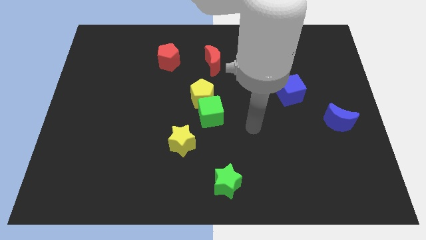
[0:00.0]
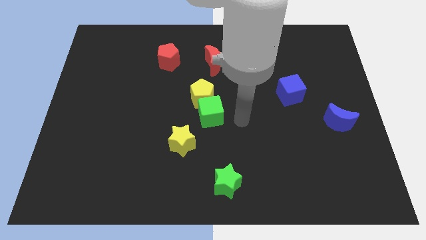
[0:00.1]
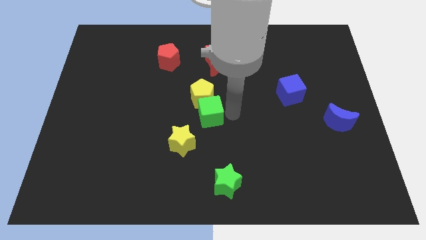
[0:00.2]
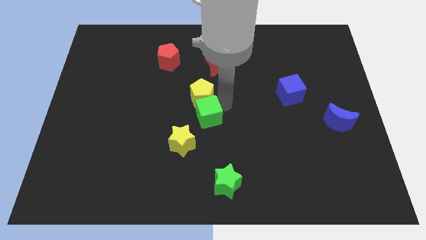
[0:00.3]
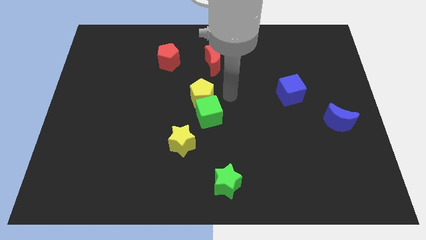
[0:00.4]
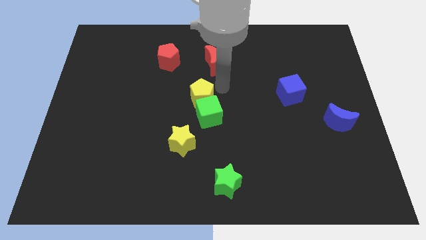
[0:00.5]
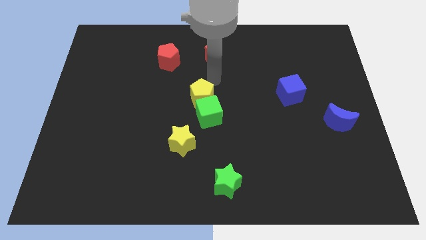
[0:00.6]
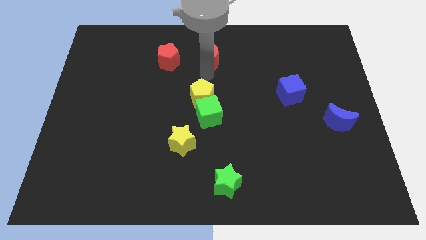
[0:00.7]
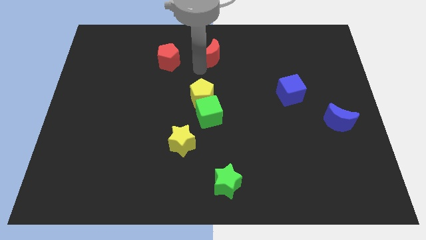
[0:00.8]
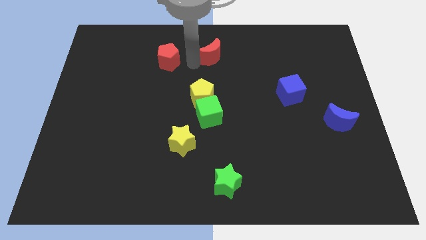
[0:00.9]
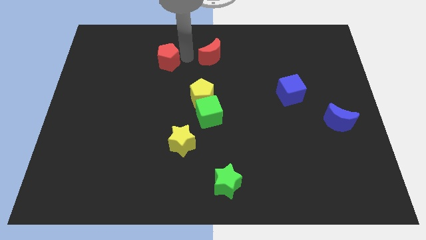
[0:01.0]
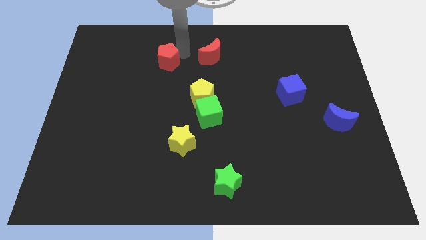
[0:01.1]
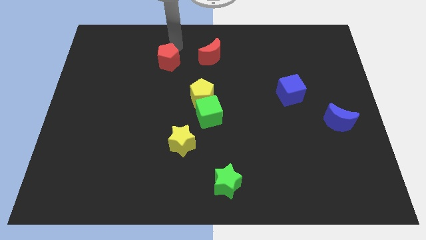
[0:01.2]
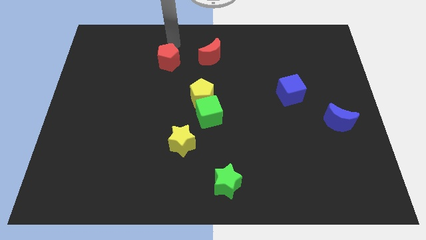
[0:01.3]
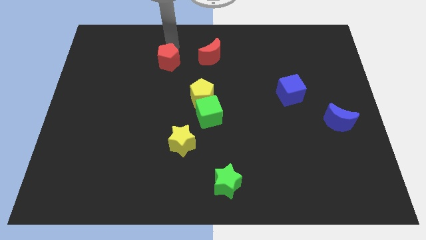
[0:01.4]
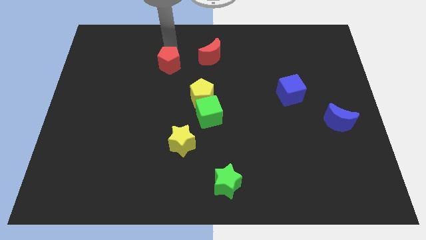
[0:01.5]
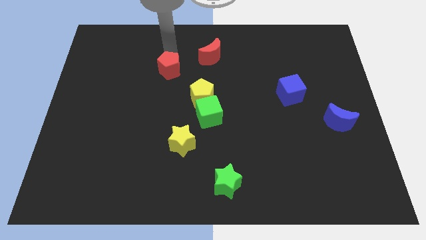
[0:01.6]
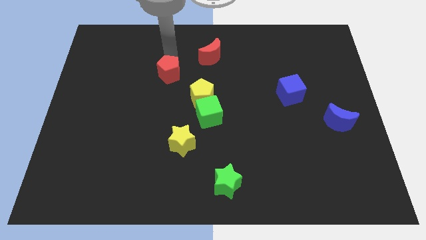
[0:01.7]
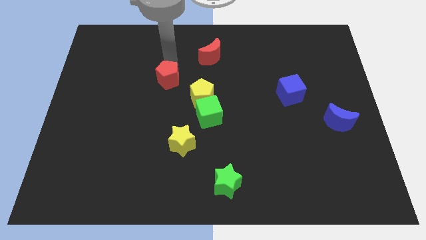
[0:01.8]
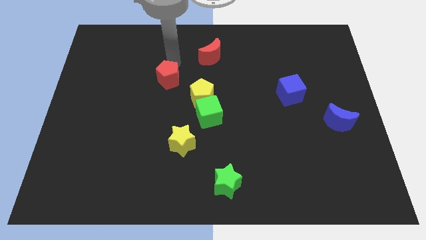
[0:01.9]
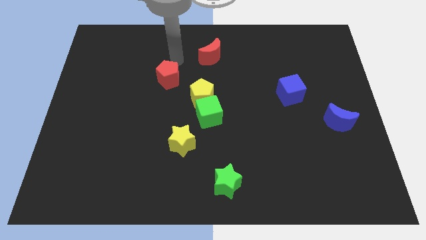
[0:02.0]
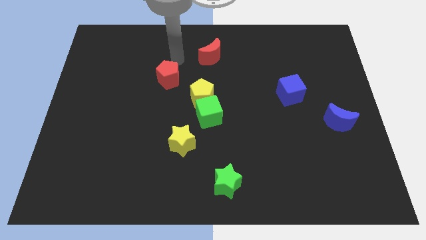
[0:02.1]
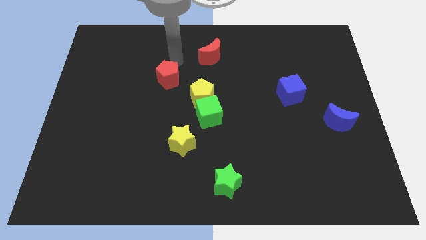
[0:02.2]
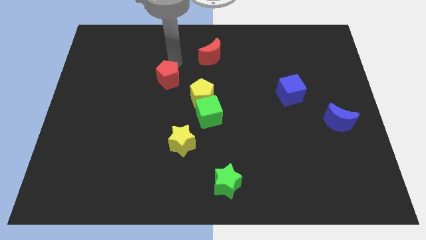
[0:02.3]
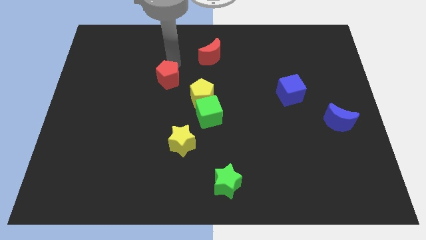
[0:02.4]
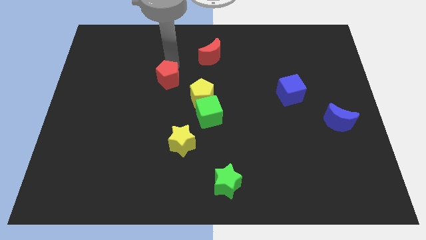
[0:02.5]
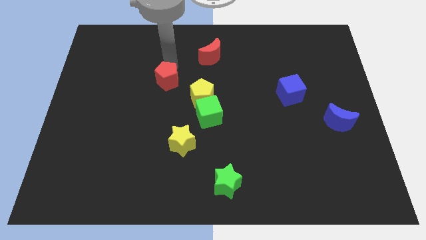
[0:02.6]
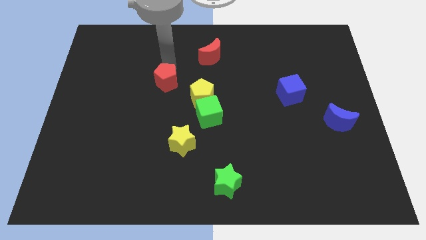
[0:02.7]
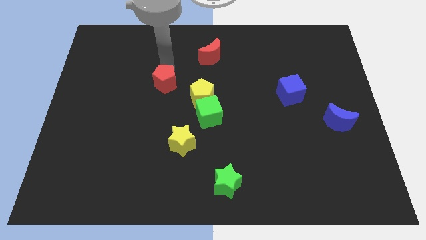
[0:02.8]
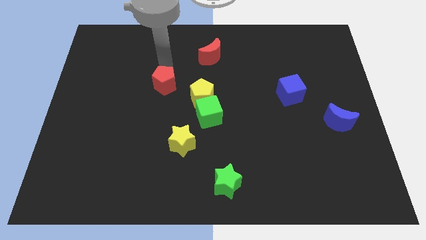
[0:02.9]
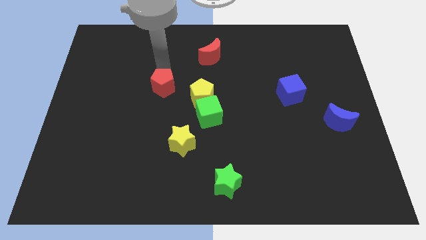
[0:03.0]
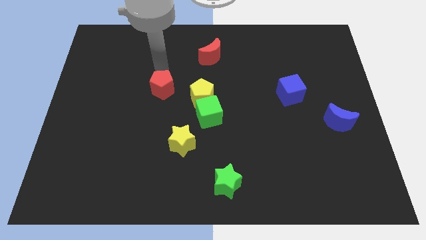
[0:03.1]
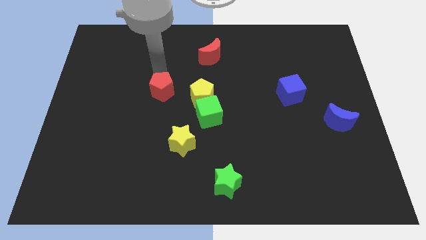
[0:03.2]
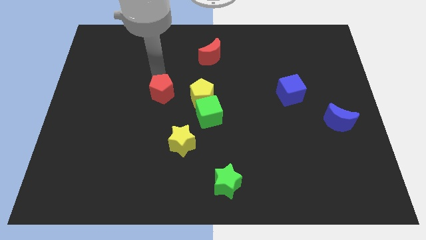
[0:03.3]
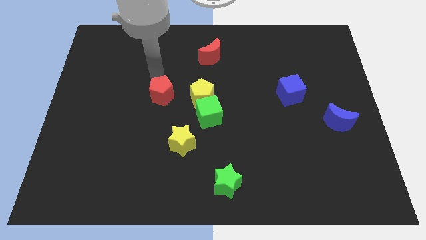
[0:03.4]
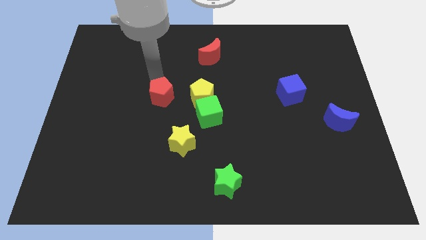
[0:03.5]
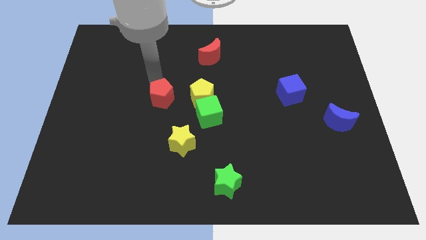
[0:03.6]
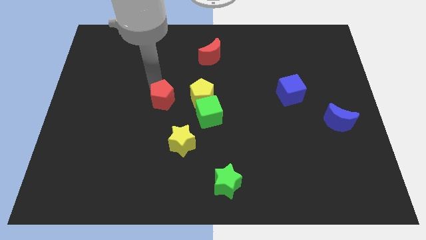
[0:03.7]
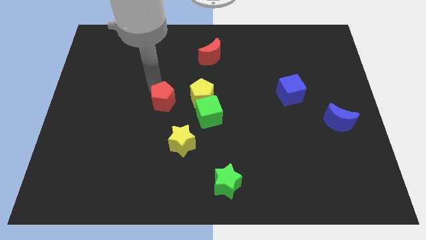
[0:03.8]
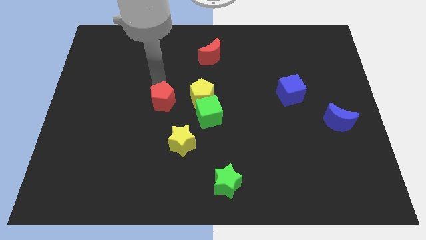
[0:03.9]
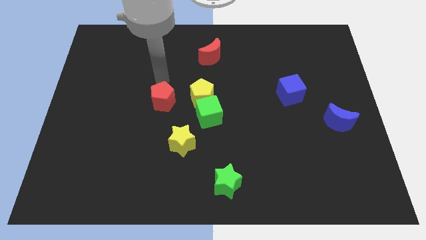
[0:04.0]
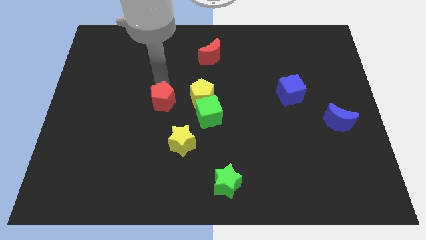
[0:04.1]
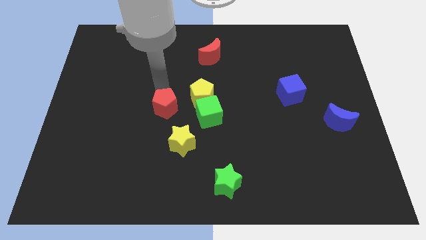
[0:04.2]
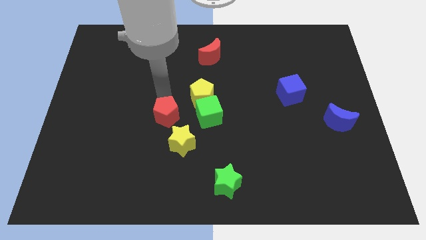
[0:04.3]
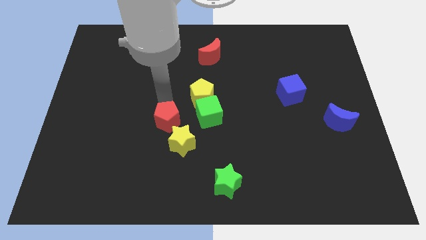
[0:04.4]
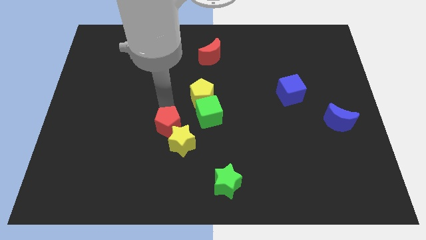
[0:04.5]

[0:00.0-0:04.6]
move the red pentagon down

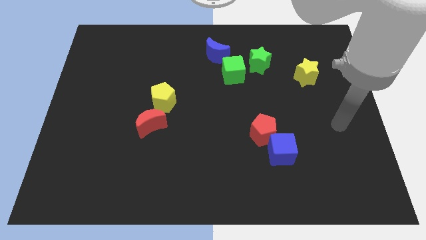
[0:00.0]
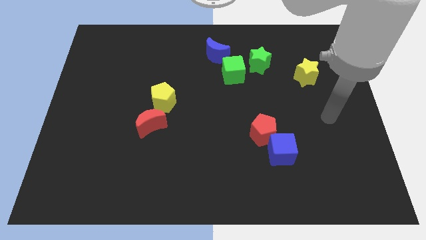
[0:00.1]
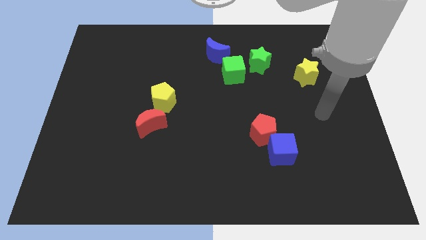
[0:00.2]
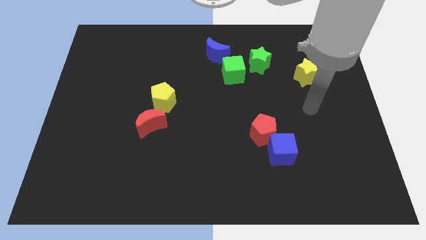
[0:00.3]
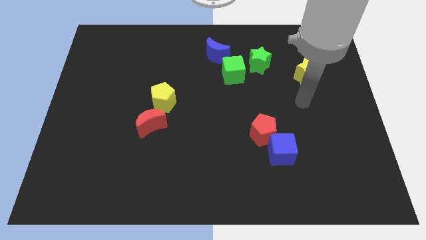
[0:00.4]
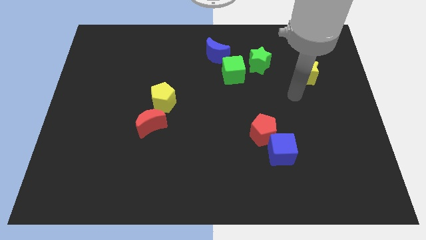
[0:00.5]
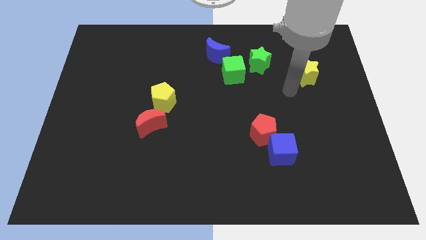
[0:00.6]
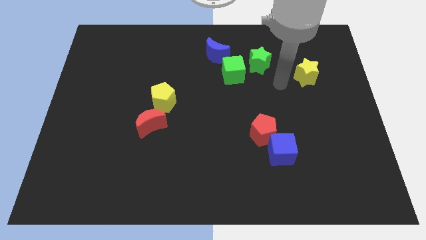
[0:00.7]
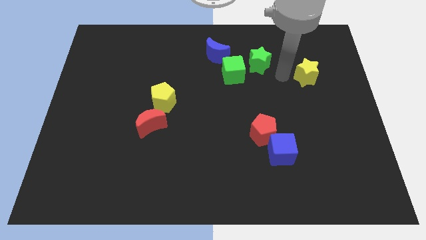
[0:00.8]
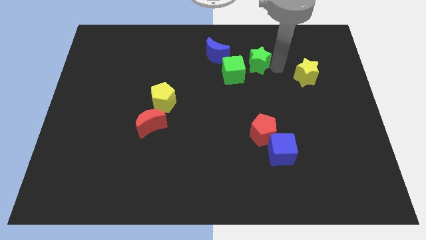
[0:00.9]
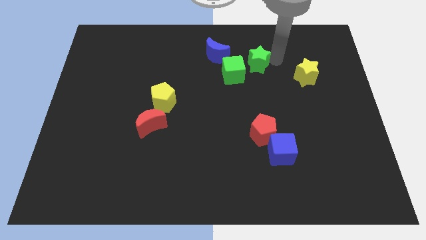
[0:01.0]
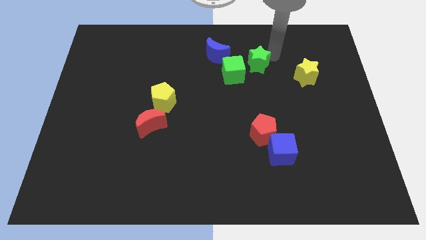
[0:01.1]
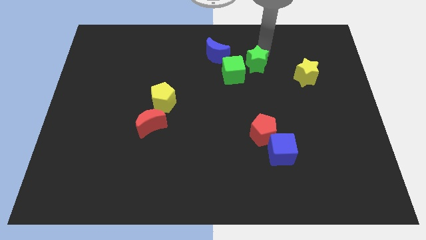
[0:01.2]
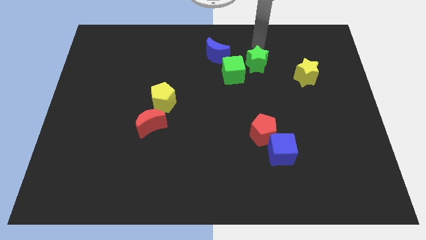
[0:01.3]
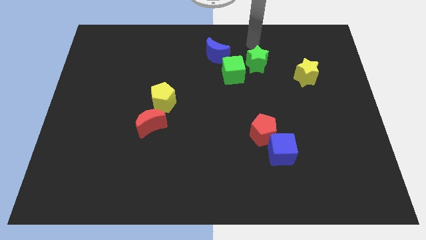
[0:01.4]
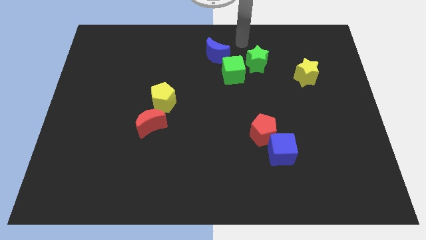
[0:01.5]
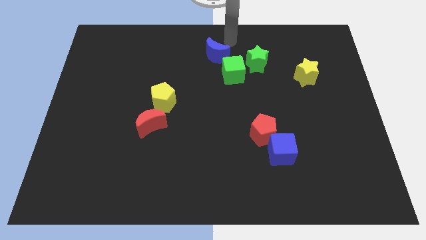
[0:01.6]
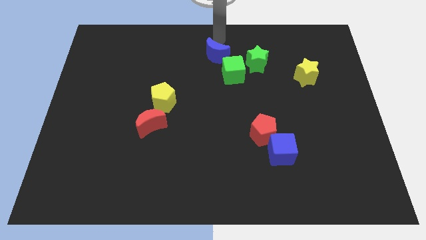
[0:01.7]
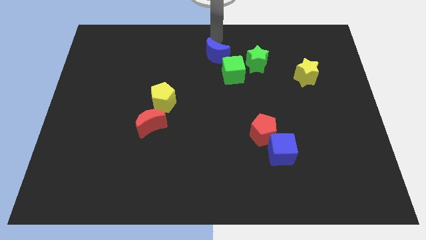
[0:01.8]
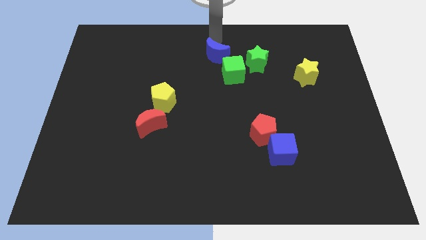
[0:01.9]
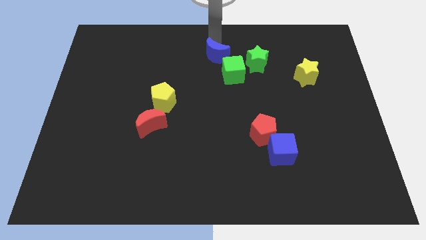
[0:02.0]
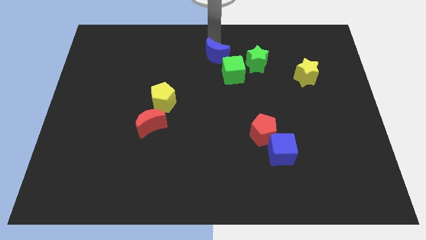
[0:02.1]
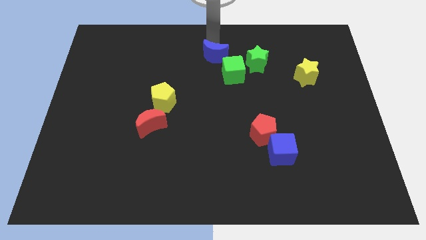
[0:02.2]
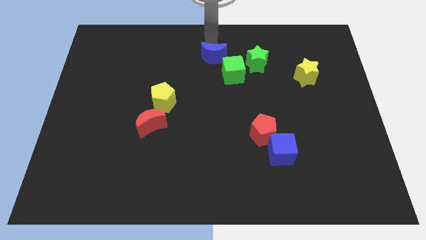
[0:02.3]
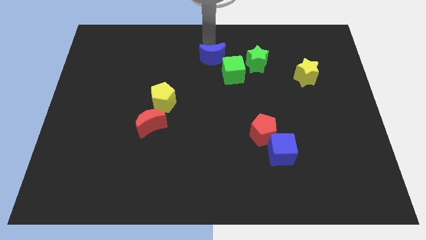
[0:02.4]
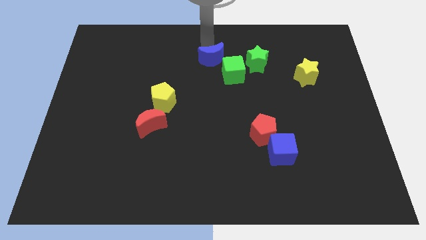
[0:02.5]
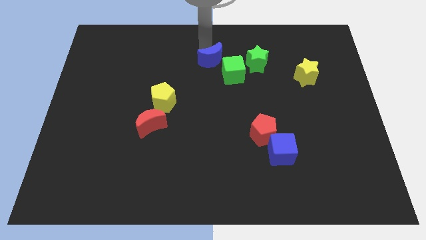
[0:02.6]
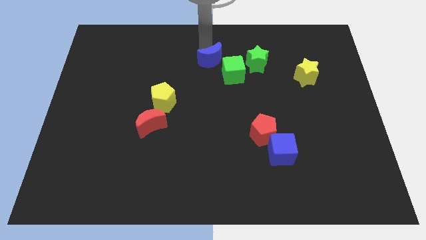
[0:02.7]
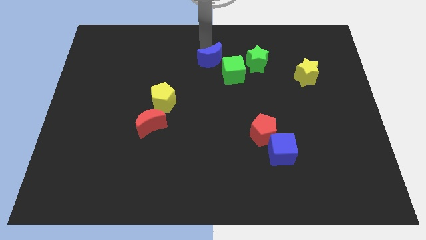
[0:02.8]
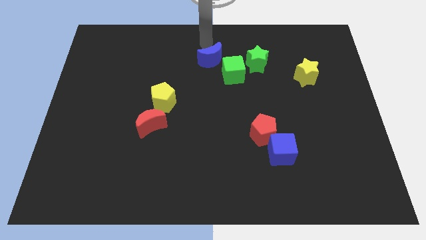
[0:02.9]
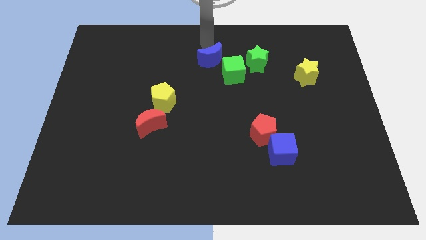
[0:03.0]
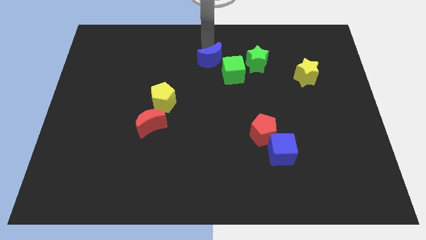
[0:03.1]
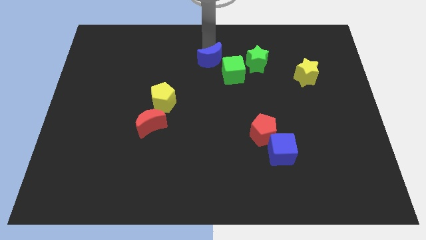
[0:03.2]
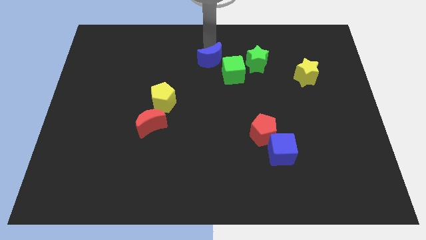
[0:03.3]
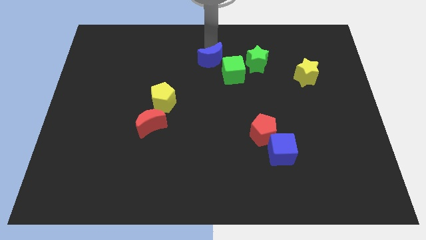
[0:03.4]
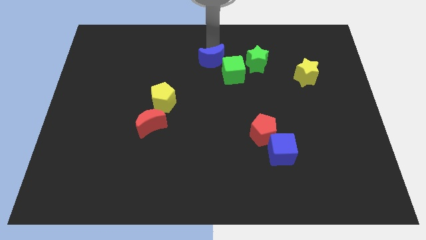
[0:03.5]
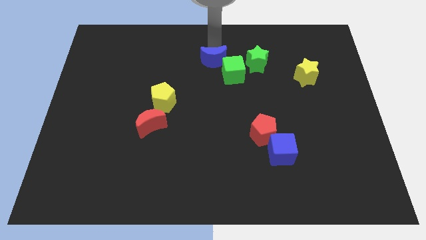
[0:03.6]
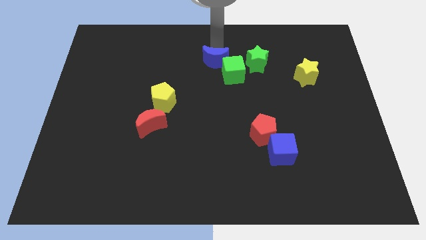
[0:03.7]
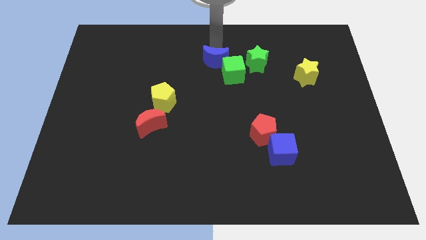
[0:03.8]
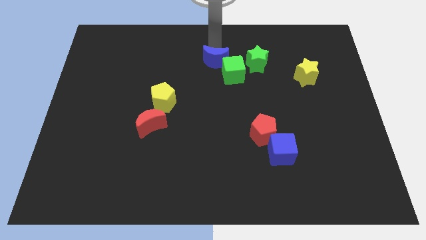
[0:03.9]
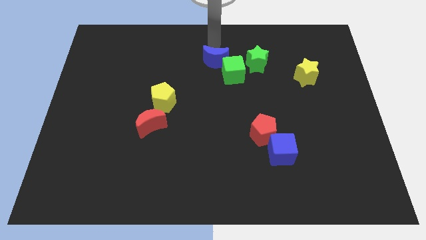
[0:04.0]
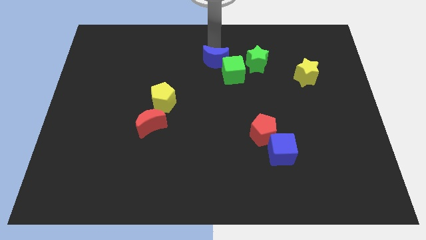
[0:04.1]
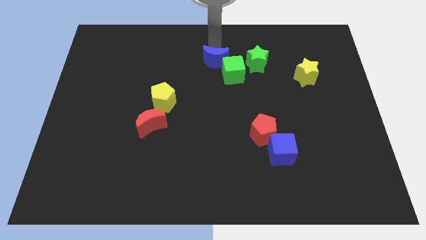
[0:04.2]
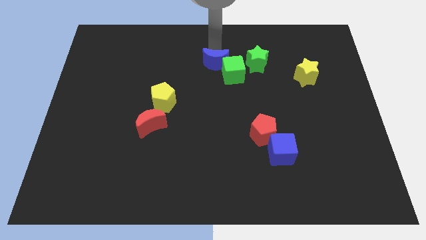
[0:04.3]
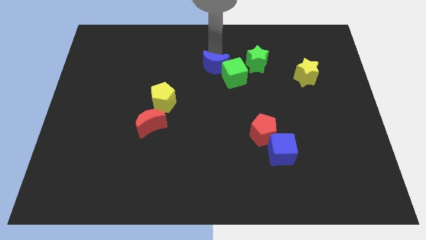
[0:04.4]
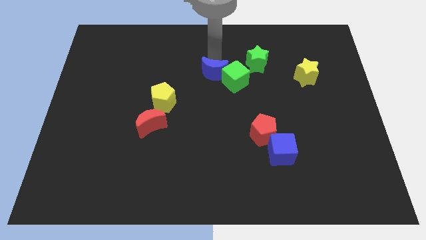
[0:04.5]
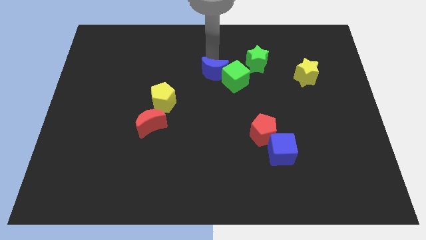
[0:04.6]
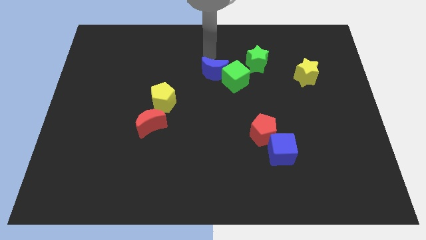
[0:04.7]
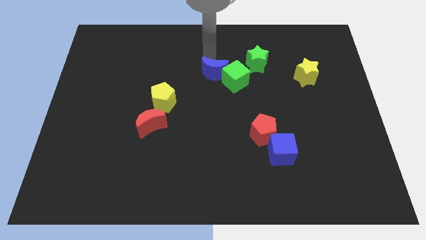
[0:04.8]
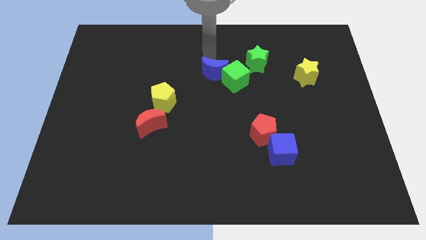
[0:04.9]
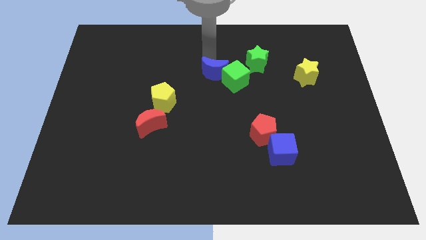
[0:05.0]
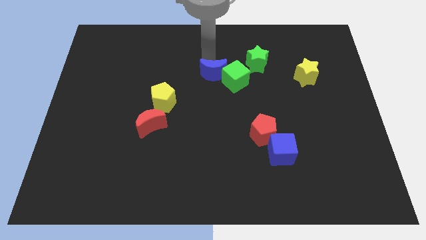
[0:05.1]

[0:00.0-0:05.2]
slide the blue moon down slightly
